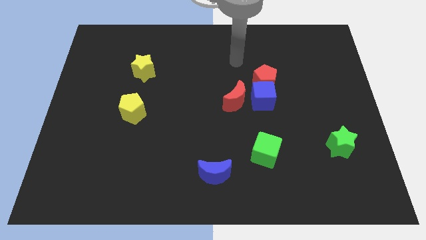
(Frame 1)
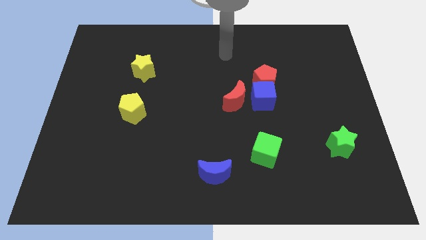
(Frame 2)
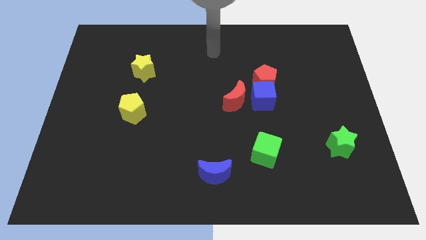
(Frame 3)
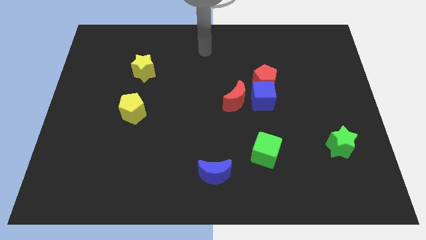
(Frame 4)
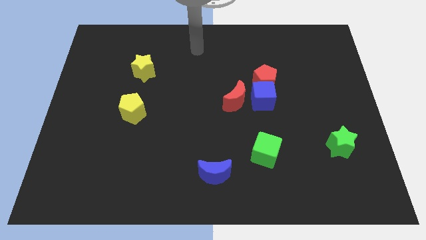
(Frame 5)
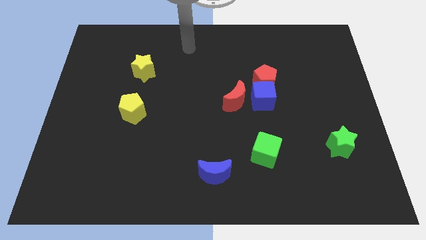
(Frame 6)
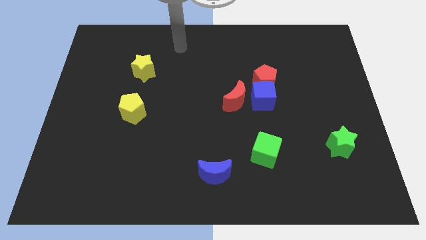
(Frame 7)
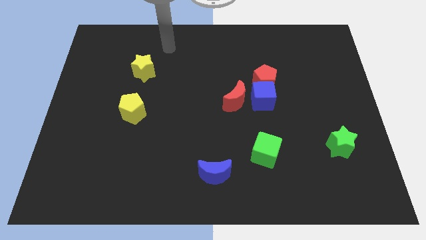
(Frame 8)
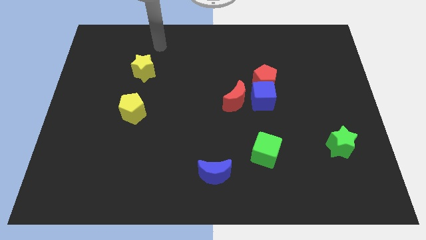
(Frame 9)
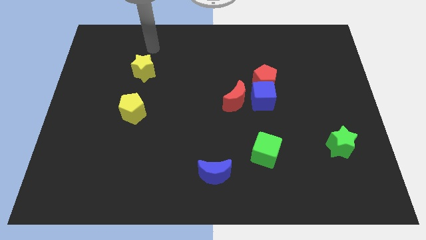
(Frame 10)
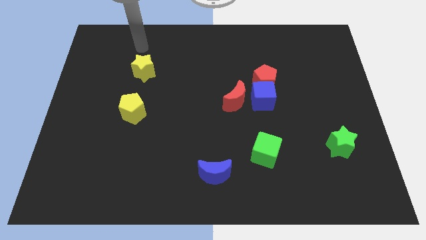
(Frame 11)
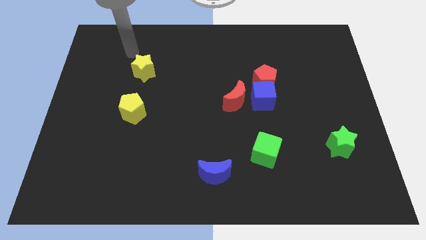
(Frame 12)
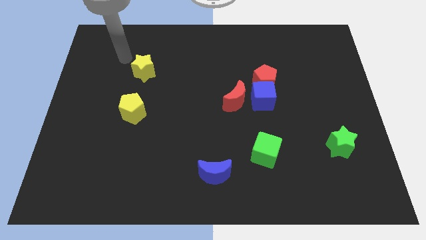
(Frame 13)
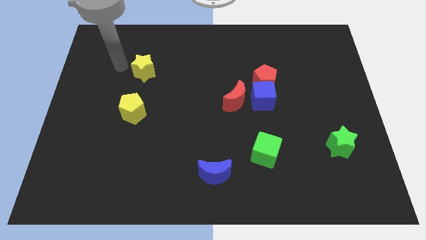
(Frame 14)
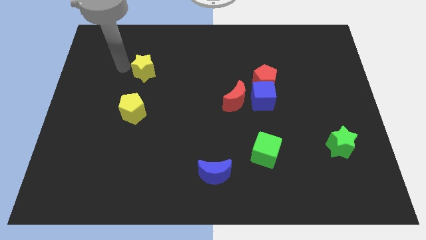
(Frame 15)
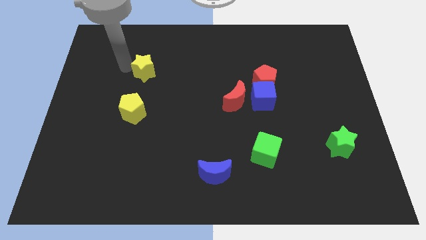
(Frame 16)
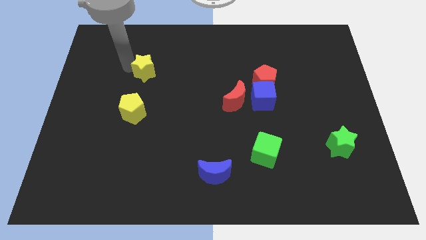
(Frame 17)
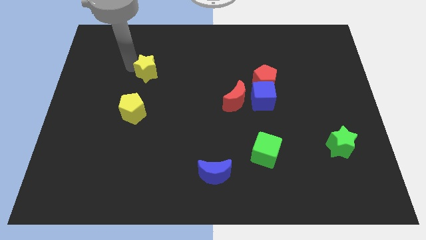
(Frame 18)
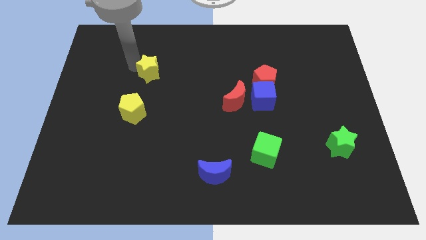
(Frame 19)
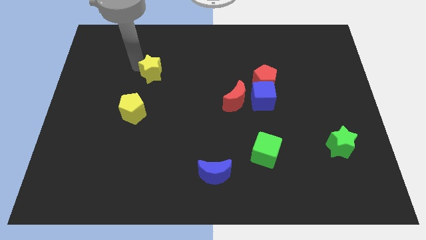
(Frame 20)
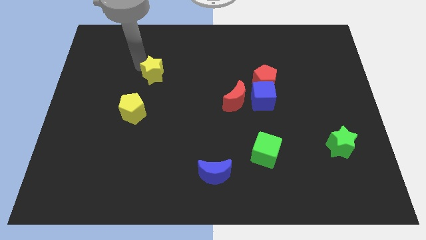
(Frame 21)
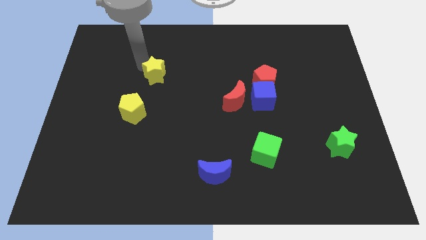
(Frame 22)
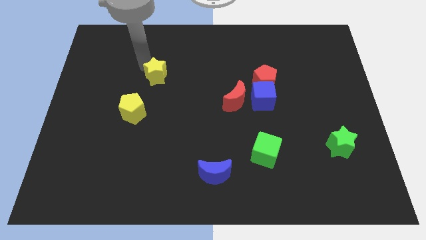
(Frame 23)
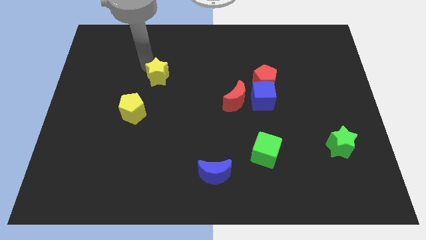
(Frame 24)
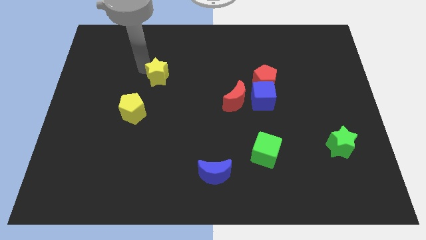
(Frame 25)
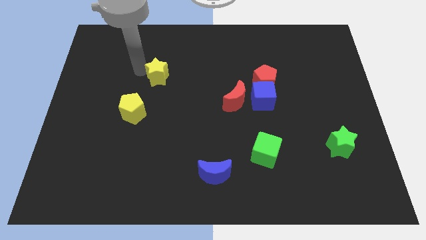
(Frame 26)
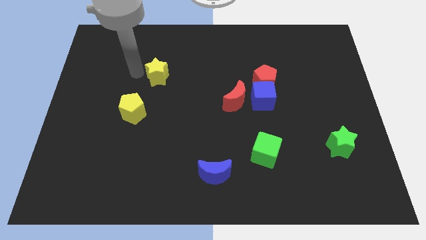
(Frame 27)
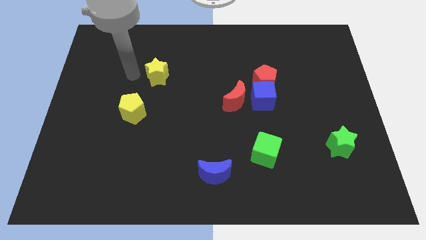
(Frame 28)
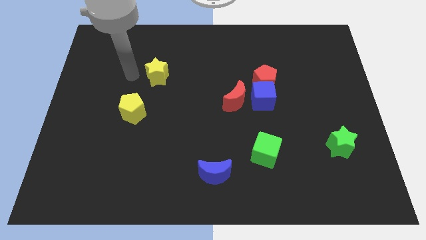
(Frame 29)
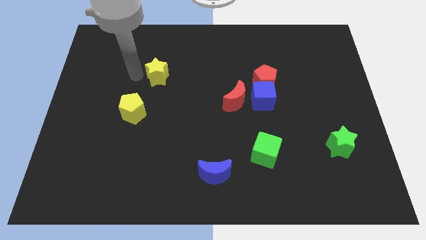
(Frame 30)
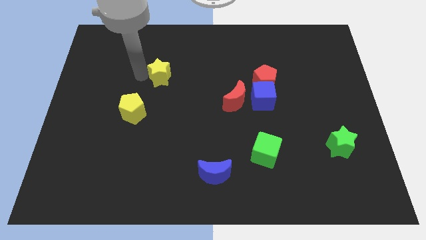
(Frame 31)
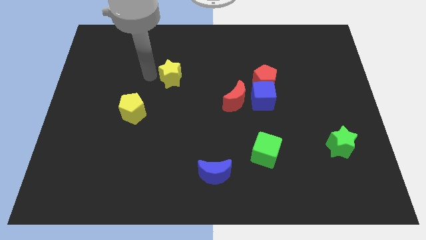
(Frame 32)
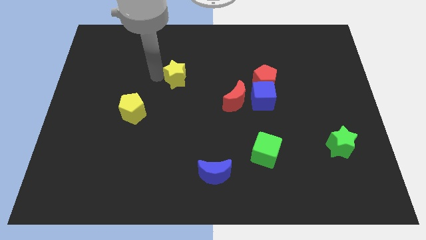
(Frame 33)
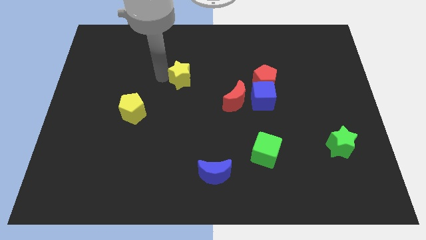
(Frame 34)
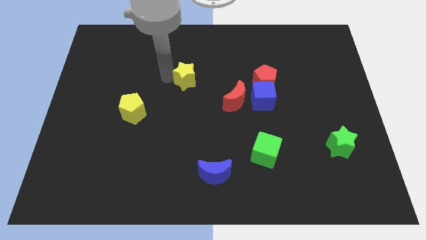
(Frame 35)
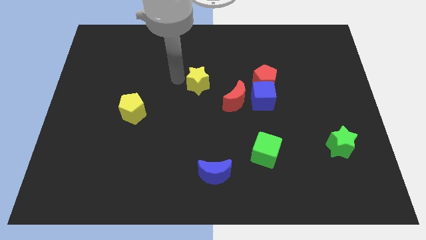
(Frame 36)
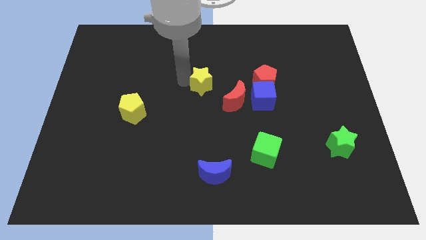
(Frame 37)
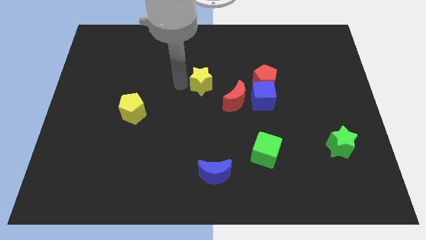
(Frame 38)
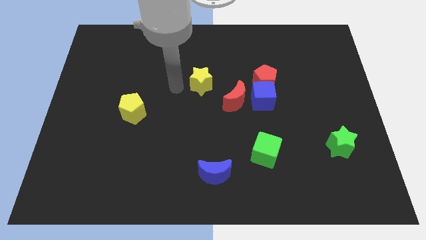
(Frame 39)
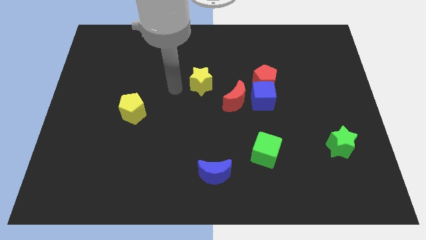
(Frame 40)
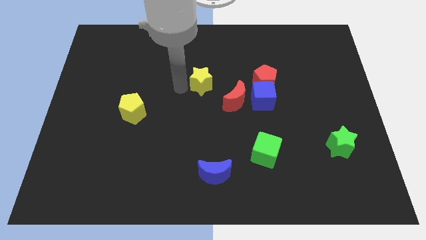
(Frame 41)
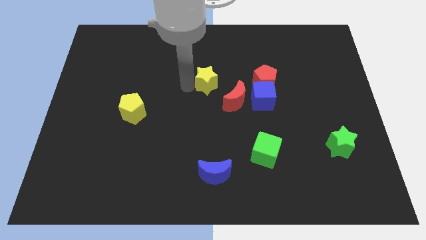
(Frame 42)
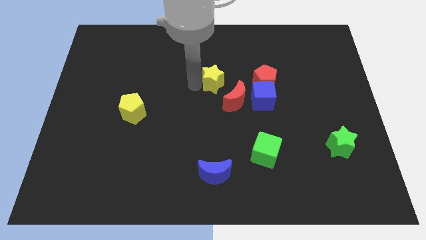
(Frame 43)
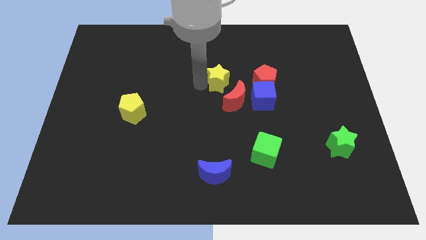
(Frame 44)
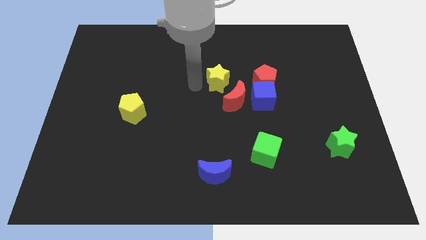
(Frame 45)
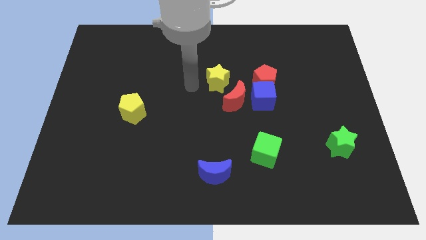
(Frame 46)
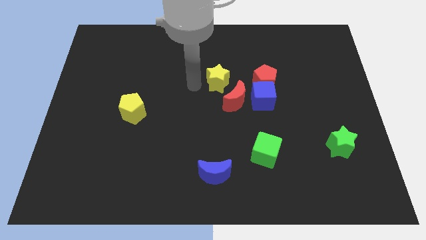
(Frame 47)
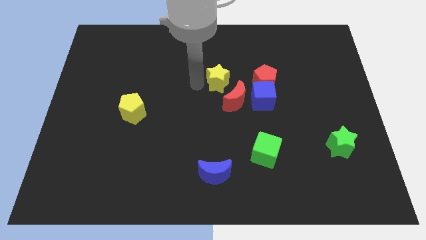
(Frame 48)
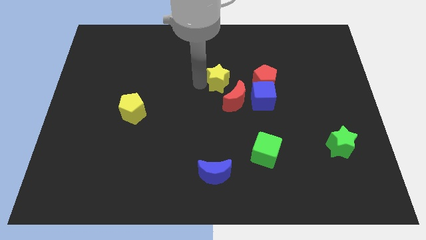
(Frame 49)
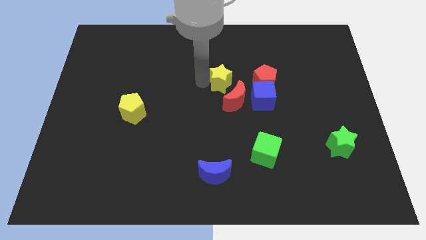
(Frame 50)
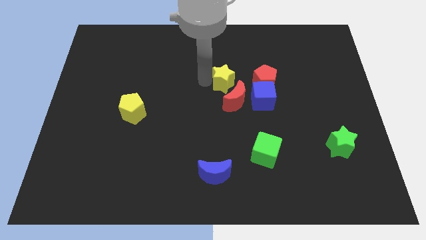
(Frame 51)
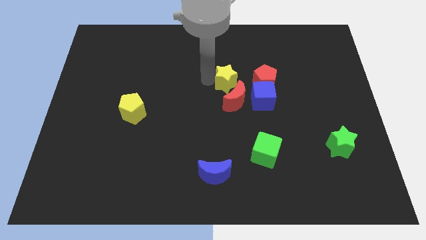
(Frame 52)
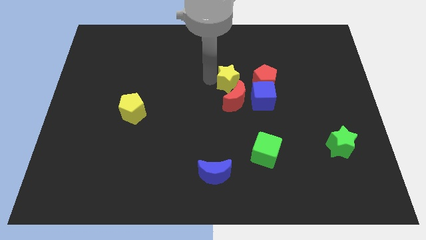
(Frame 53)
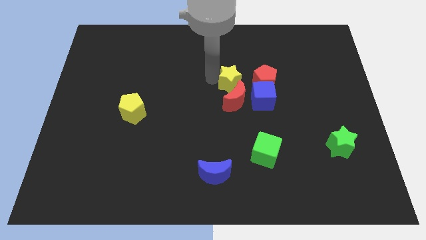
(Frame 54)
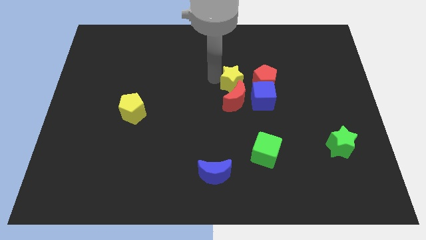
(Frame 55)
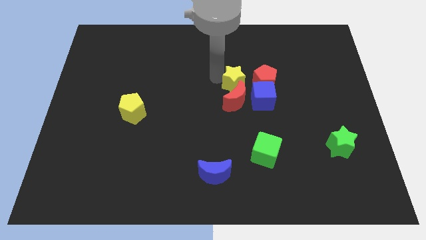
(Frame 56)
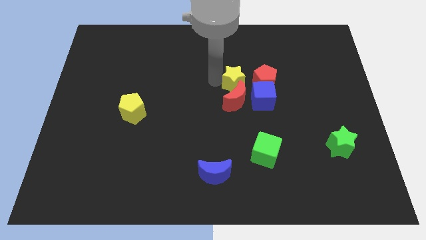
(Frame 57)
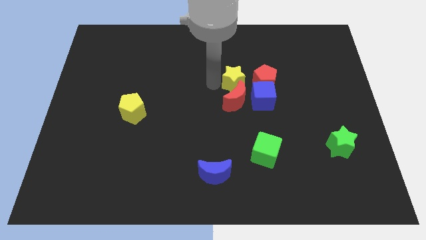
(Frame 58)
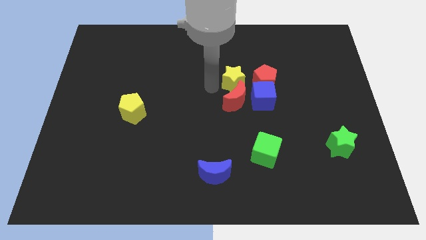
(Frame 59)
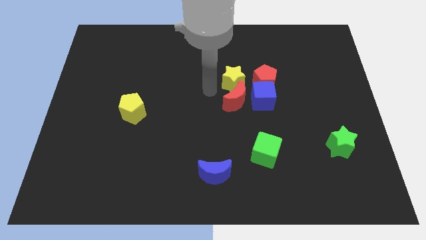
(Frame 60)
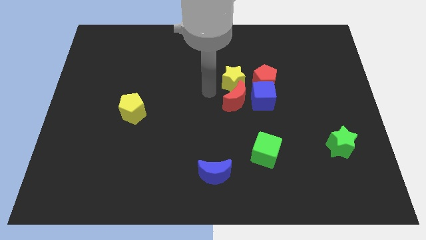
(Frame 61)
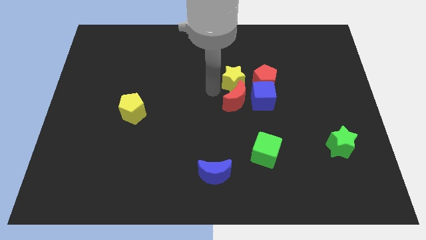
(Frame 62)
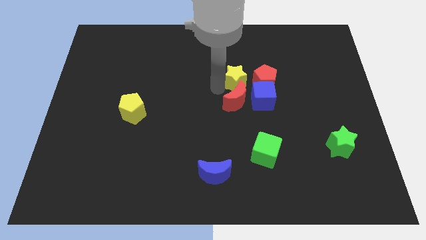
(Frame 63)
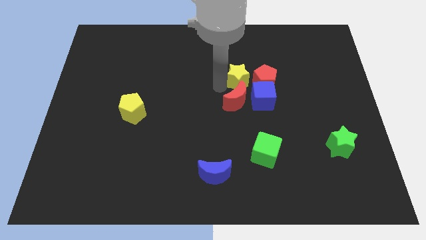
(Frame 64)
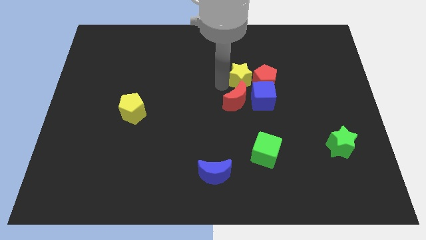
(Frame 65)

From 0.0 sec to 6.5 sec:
push the yellow star towards the red pentagon

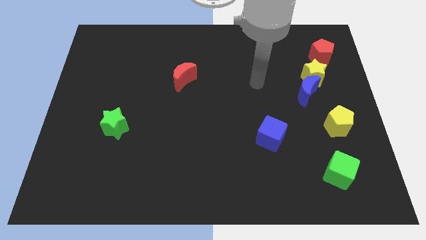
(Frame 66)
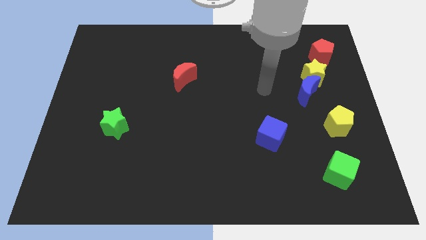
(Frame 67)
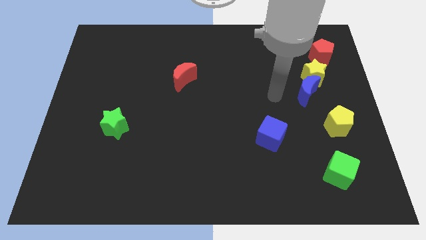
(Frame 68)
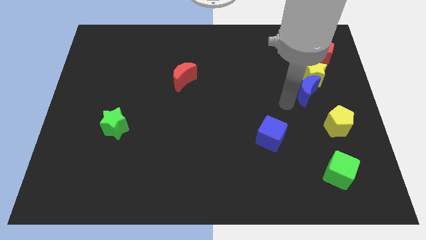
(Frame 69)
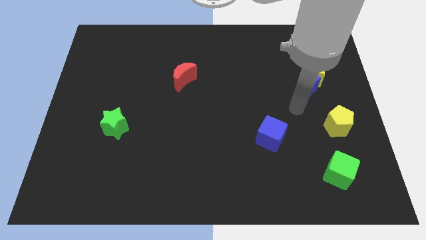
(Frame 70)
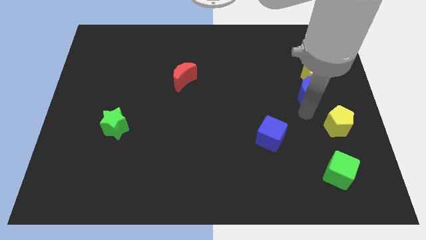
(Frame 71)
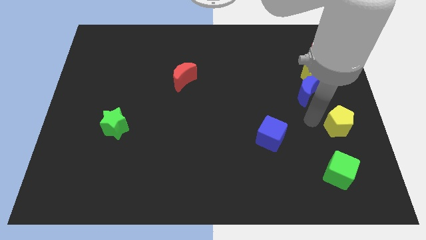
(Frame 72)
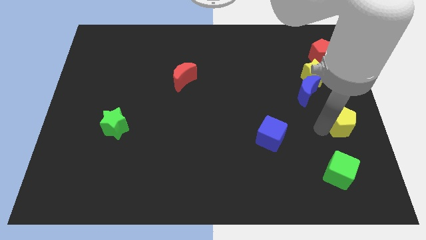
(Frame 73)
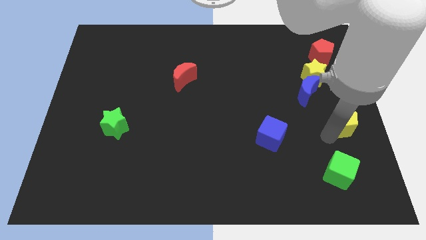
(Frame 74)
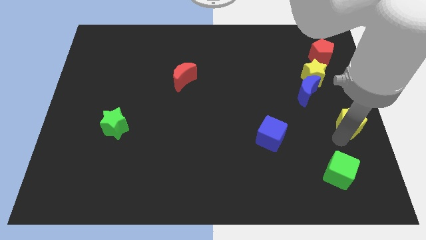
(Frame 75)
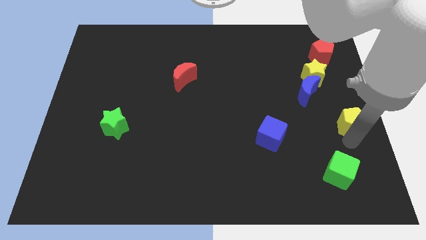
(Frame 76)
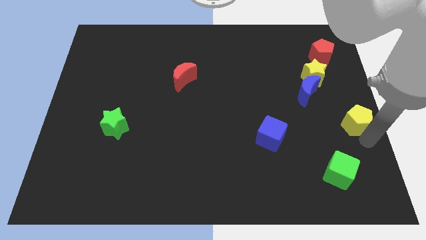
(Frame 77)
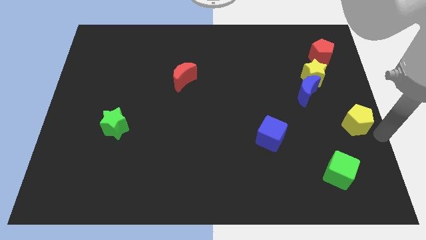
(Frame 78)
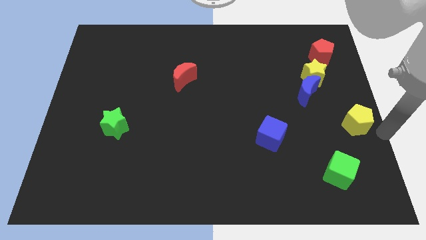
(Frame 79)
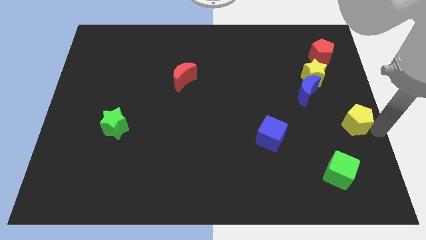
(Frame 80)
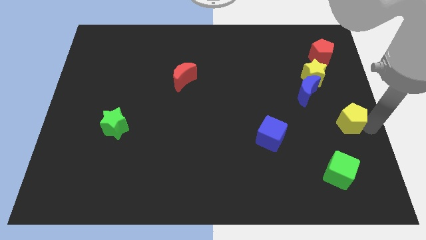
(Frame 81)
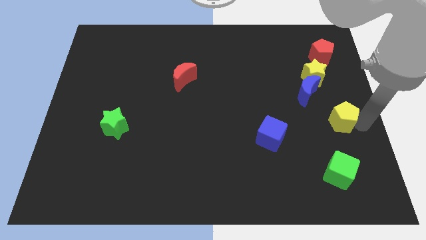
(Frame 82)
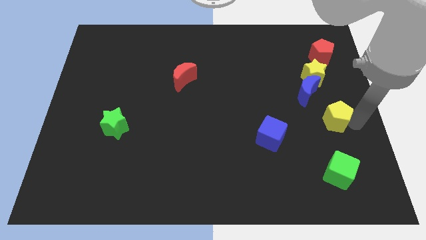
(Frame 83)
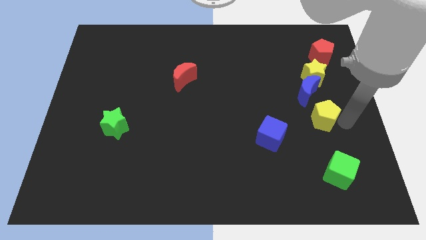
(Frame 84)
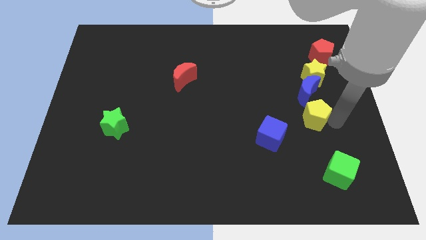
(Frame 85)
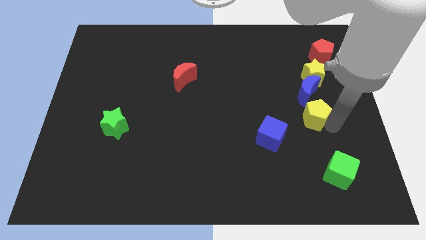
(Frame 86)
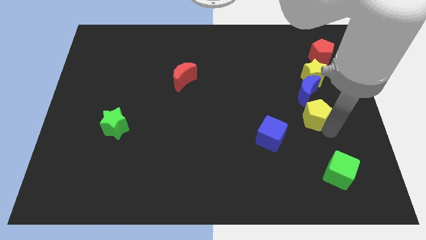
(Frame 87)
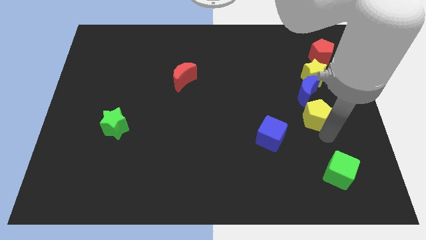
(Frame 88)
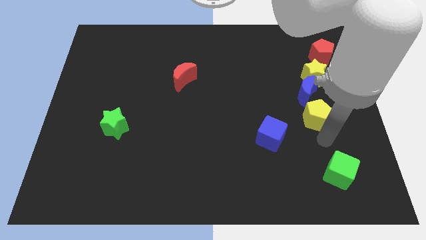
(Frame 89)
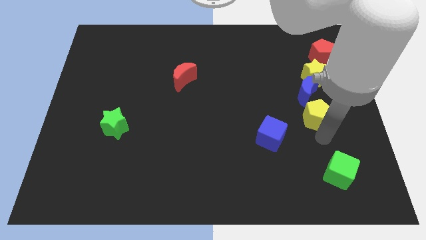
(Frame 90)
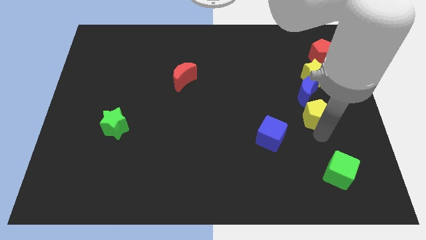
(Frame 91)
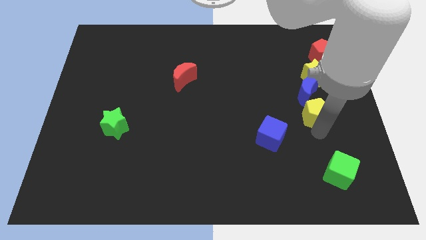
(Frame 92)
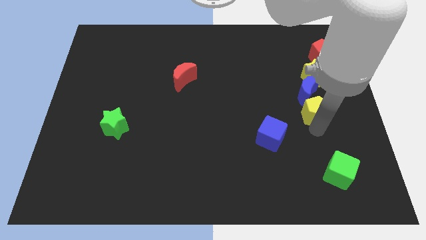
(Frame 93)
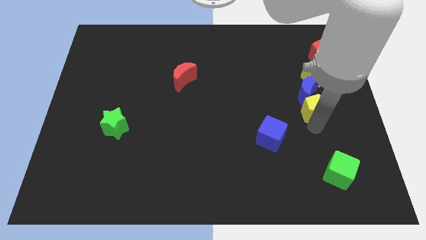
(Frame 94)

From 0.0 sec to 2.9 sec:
put the yellow pentagon close to the blue moon
